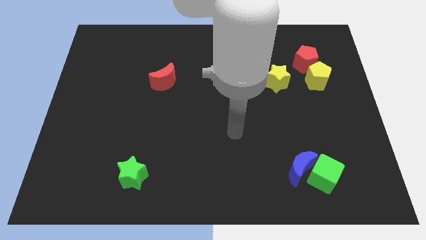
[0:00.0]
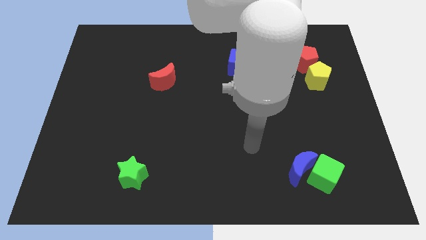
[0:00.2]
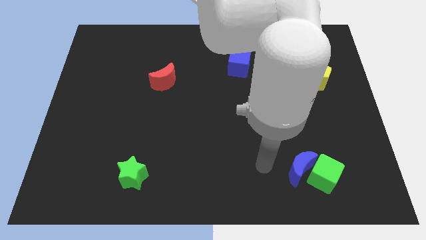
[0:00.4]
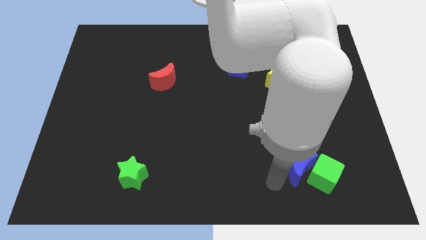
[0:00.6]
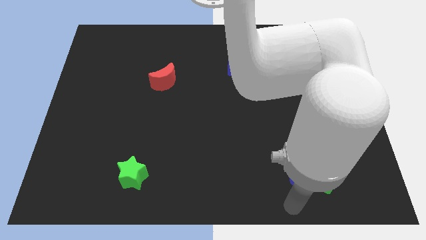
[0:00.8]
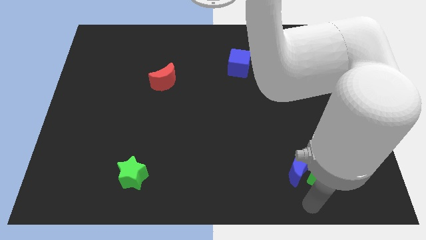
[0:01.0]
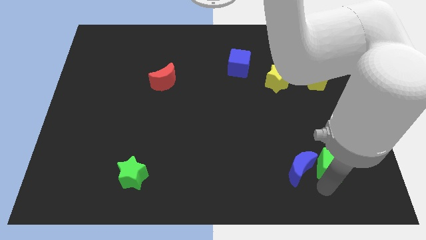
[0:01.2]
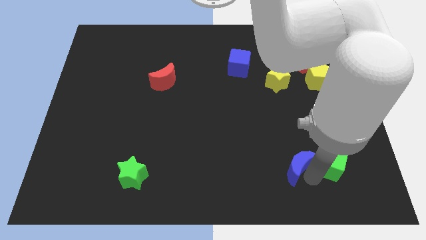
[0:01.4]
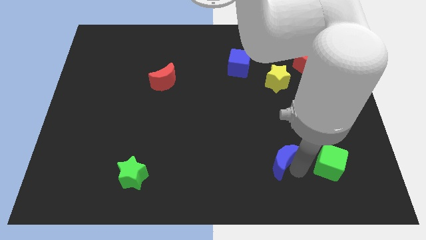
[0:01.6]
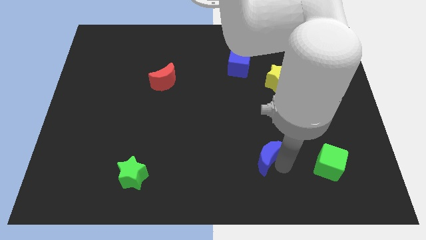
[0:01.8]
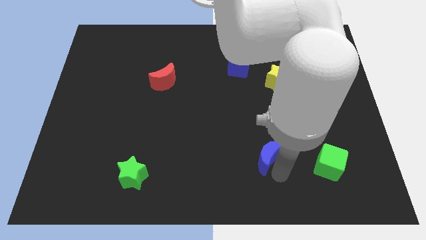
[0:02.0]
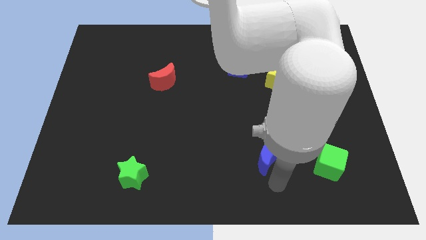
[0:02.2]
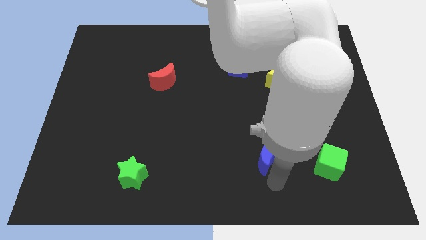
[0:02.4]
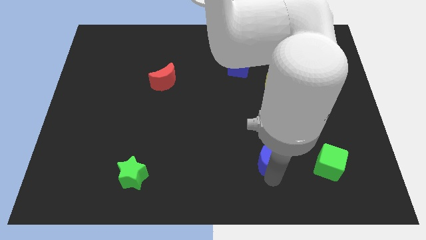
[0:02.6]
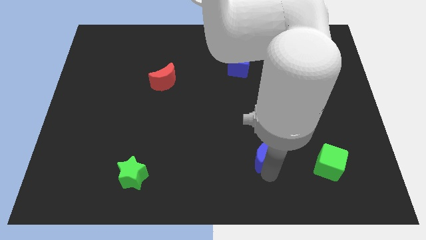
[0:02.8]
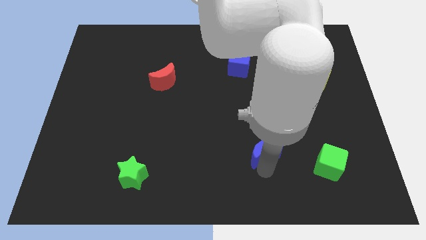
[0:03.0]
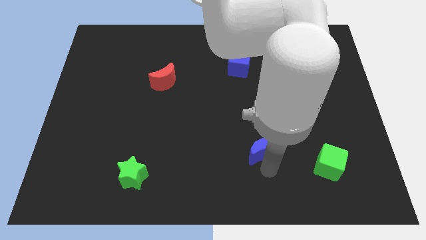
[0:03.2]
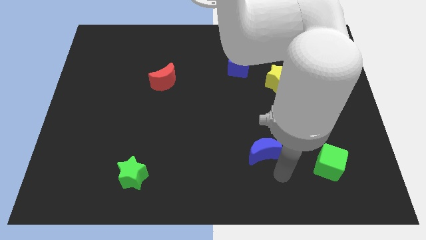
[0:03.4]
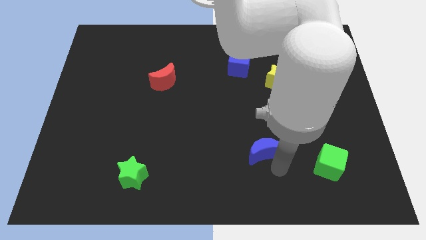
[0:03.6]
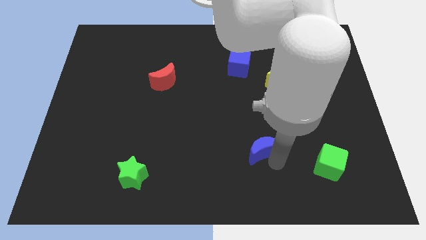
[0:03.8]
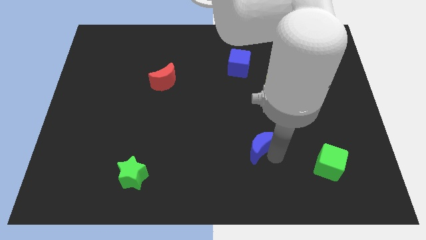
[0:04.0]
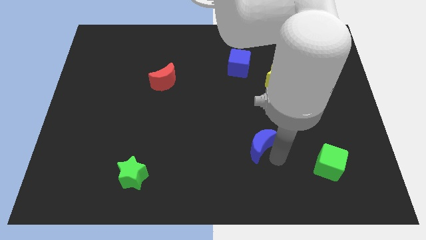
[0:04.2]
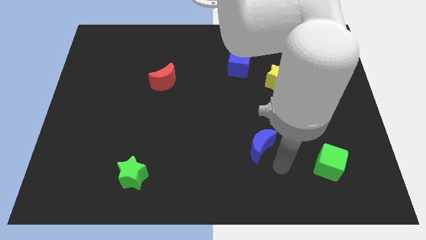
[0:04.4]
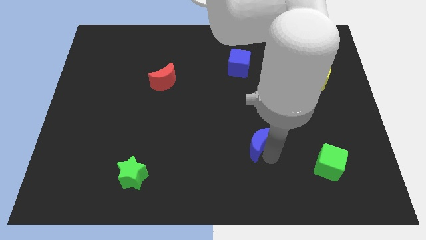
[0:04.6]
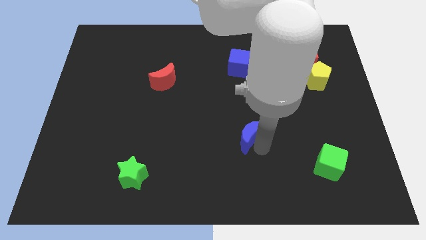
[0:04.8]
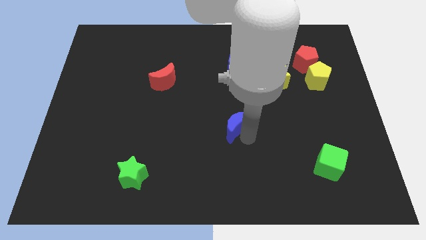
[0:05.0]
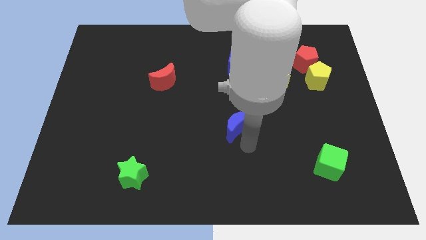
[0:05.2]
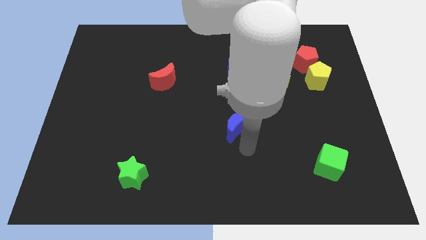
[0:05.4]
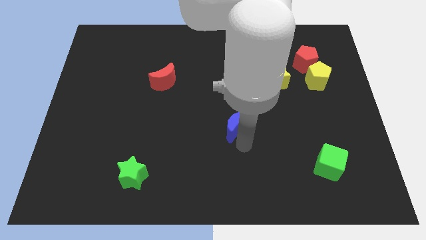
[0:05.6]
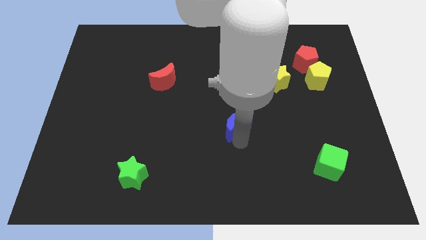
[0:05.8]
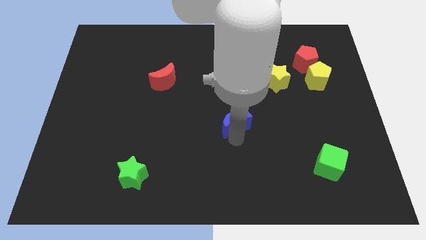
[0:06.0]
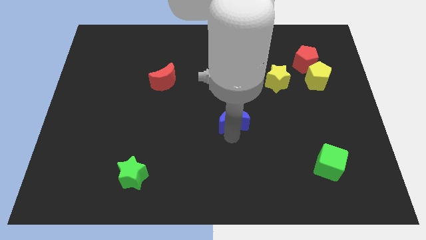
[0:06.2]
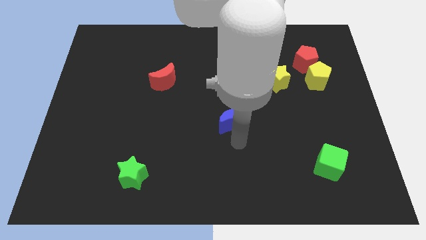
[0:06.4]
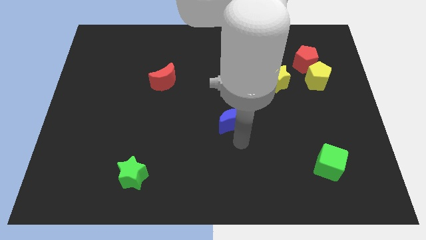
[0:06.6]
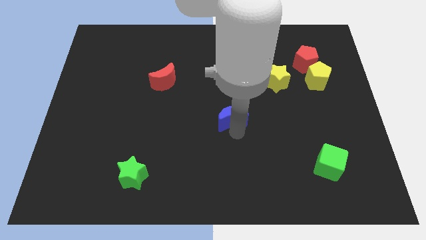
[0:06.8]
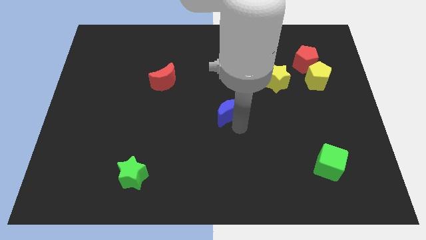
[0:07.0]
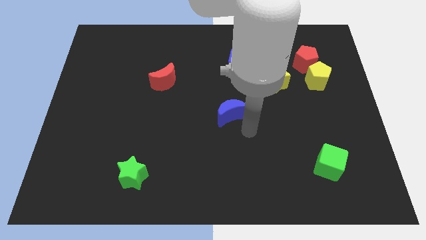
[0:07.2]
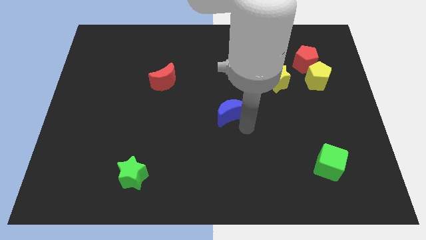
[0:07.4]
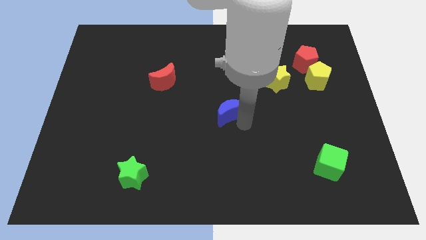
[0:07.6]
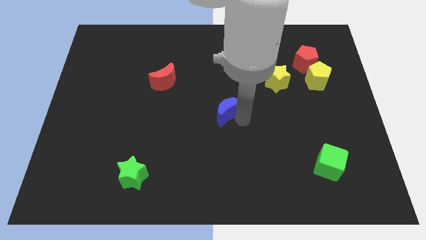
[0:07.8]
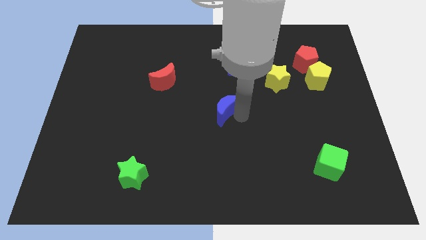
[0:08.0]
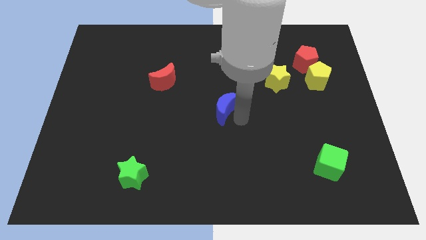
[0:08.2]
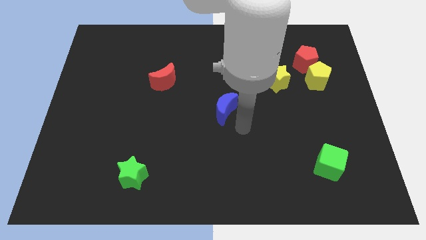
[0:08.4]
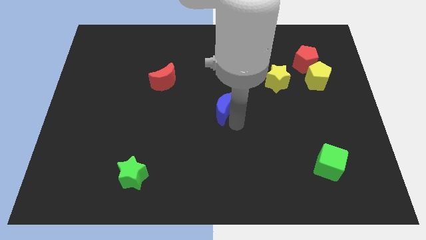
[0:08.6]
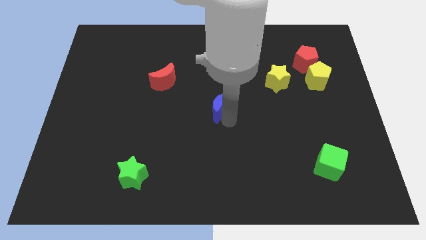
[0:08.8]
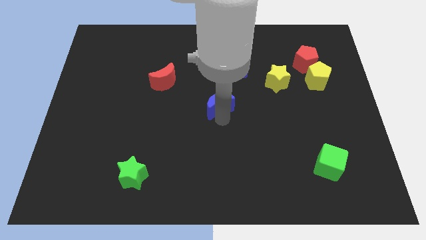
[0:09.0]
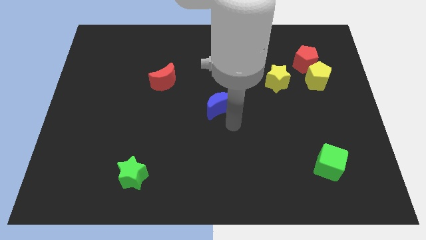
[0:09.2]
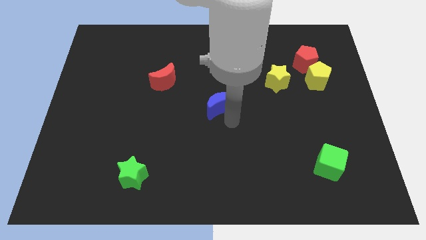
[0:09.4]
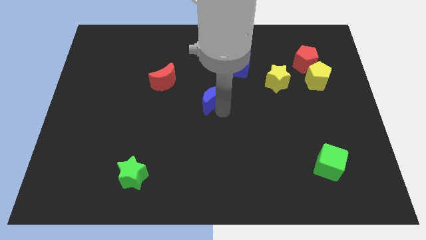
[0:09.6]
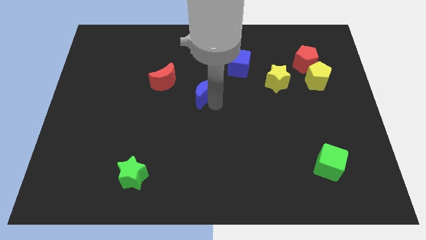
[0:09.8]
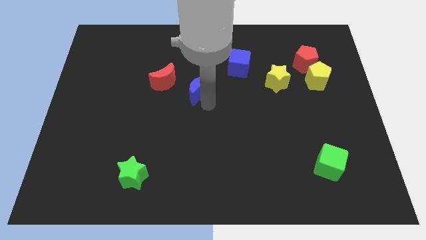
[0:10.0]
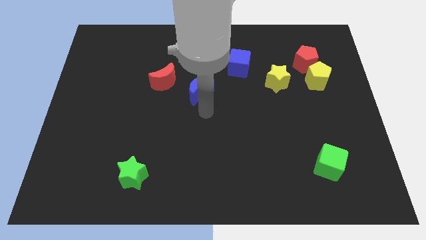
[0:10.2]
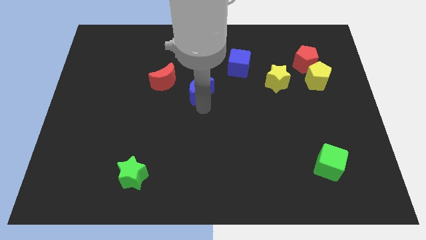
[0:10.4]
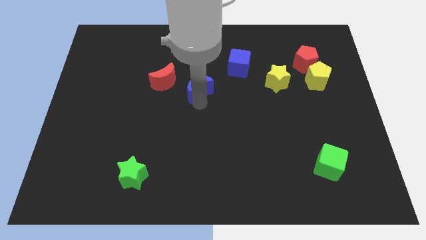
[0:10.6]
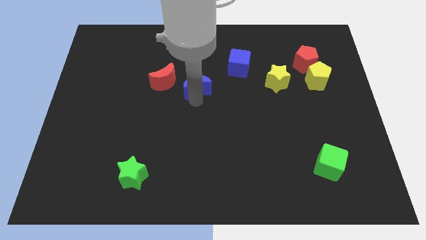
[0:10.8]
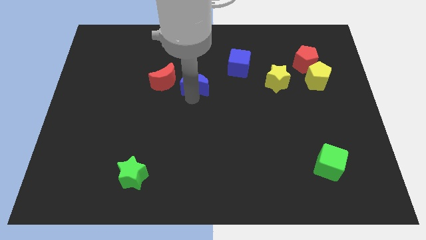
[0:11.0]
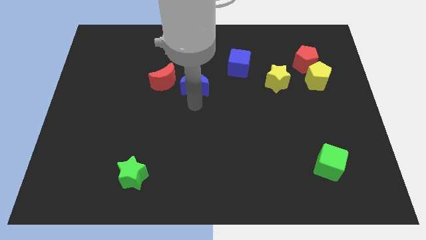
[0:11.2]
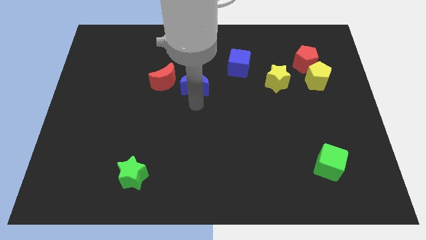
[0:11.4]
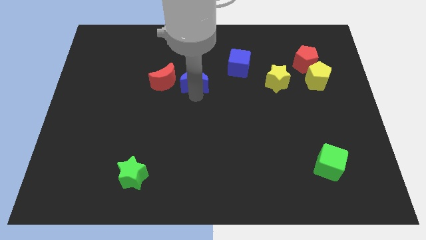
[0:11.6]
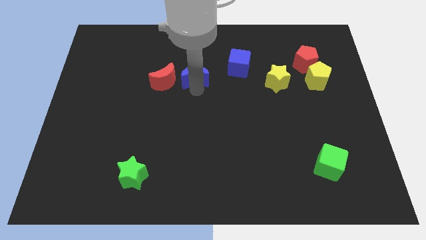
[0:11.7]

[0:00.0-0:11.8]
move the blue moon to the top right side of the red moon

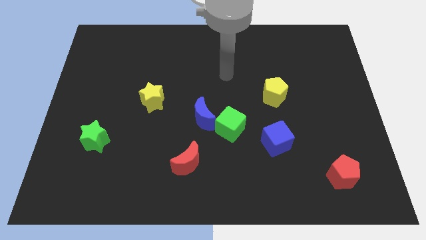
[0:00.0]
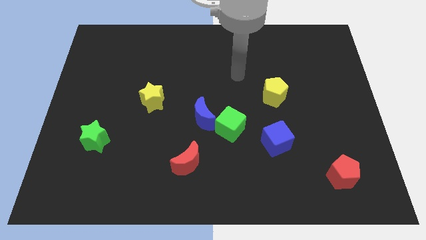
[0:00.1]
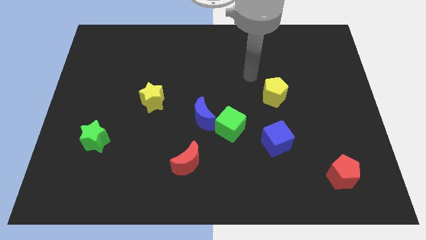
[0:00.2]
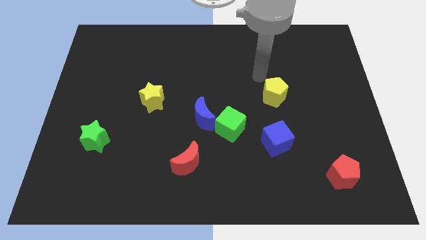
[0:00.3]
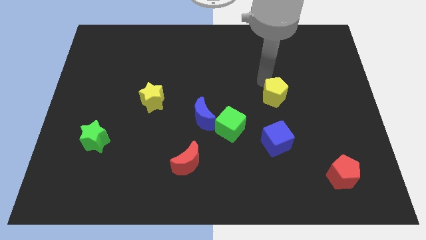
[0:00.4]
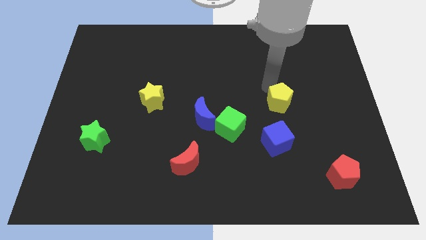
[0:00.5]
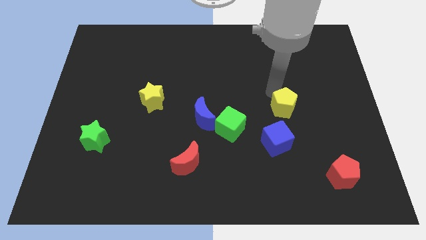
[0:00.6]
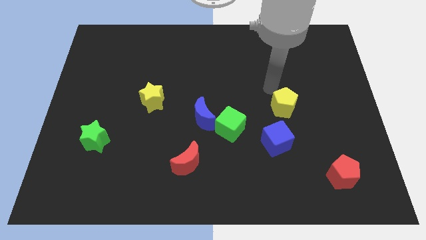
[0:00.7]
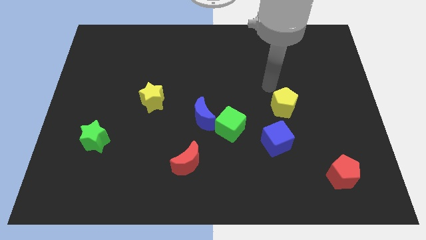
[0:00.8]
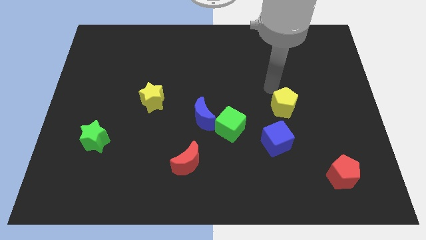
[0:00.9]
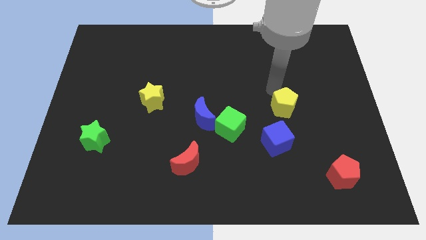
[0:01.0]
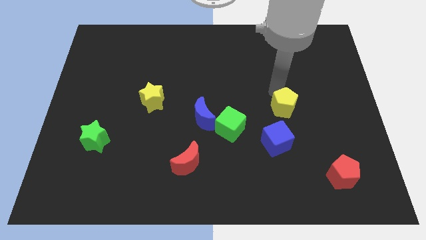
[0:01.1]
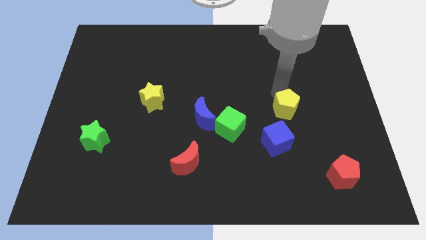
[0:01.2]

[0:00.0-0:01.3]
slide the yellow pentagon to the top right side of the blue cube
